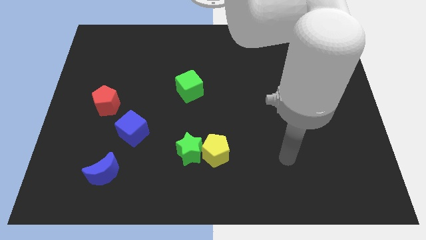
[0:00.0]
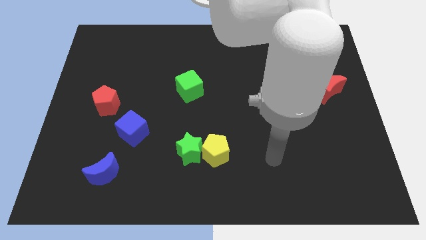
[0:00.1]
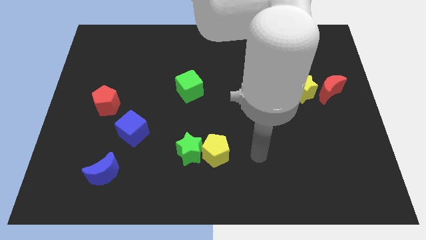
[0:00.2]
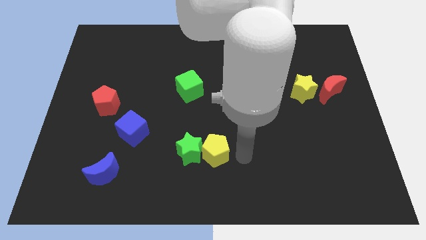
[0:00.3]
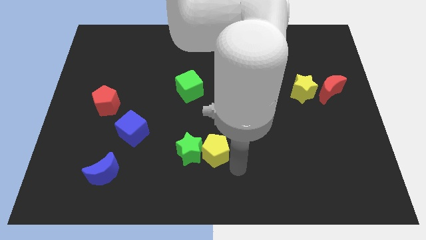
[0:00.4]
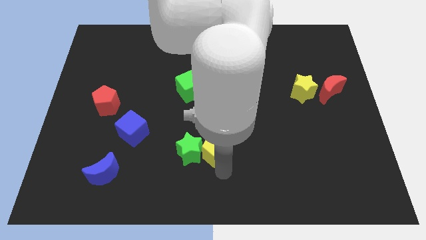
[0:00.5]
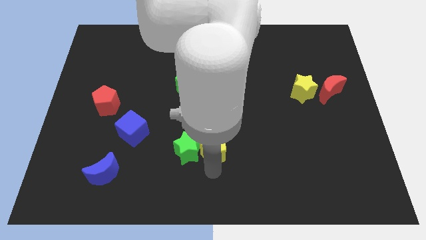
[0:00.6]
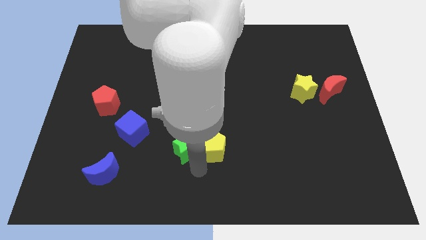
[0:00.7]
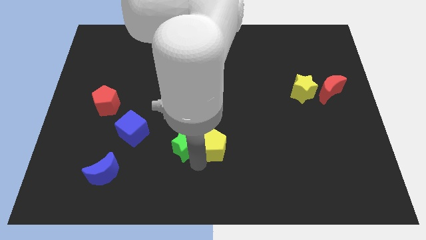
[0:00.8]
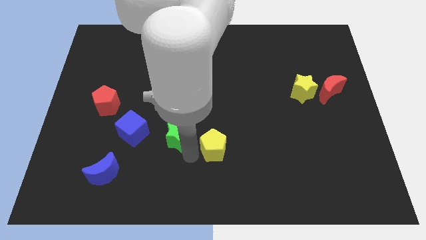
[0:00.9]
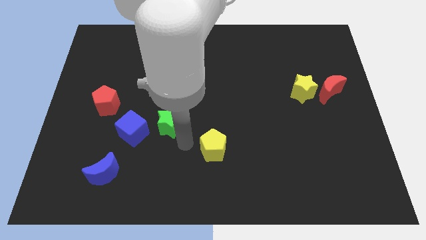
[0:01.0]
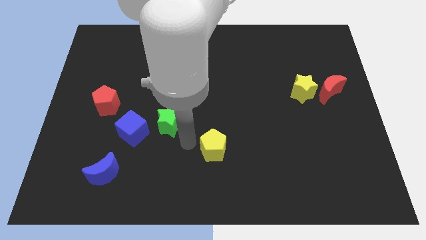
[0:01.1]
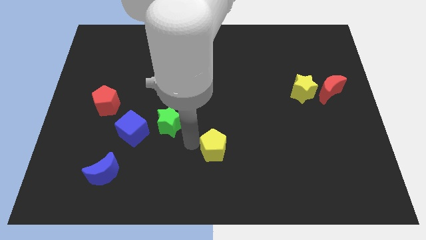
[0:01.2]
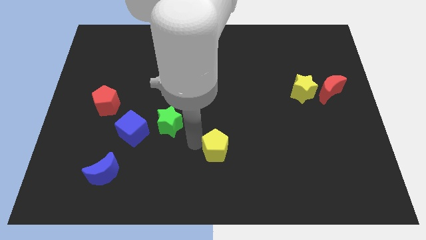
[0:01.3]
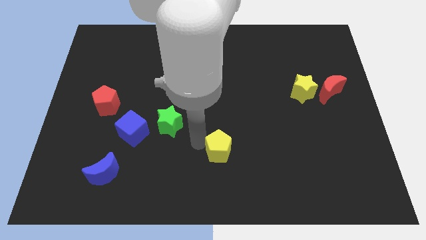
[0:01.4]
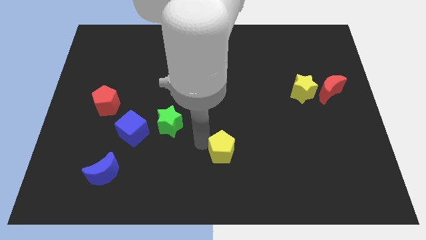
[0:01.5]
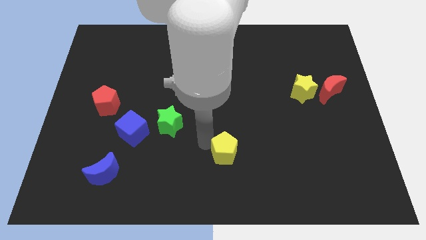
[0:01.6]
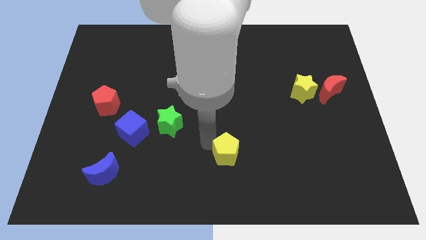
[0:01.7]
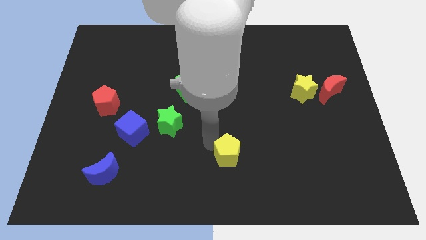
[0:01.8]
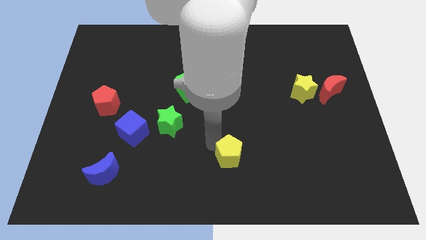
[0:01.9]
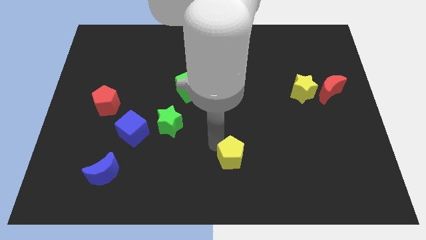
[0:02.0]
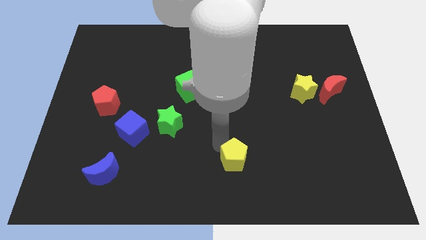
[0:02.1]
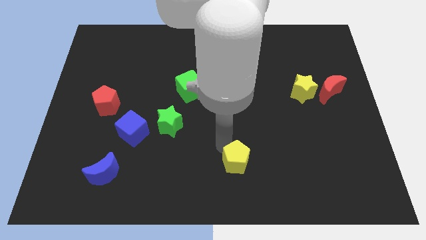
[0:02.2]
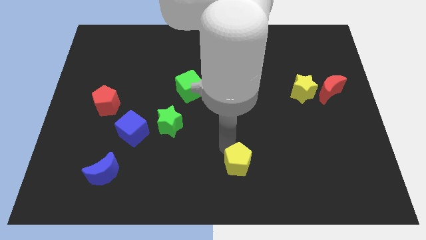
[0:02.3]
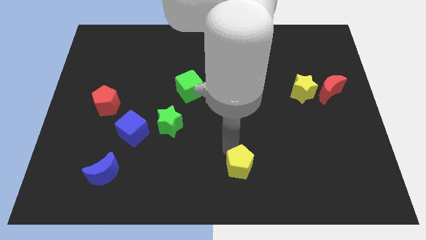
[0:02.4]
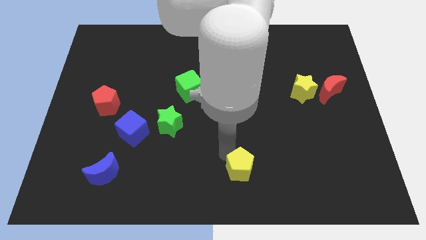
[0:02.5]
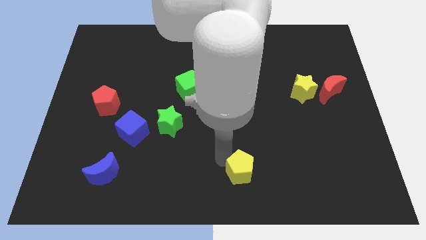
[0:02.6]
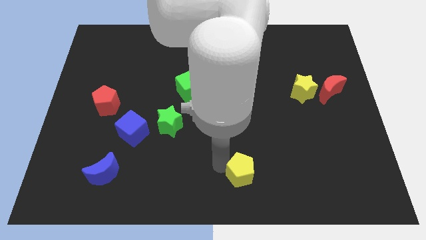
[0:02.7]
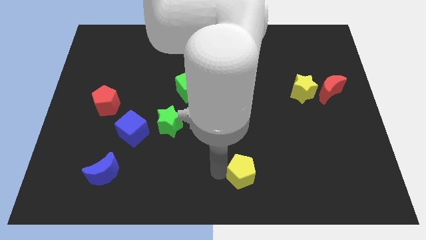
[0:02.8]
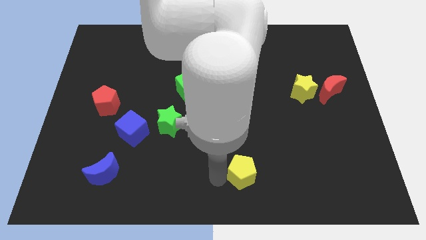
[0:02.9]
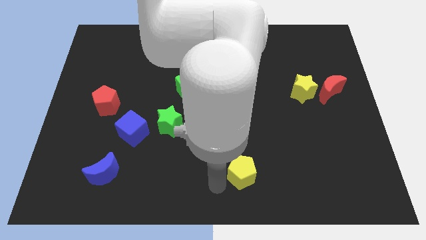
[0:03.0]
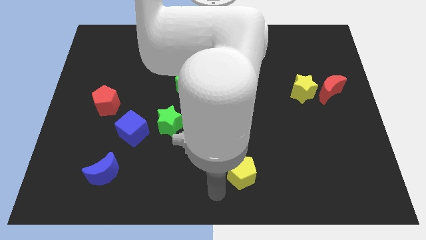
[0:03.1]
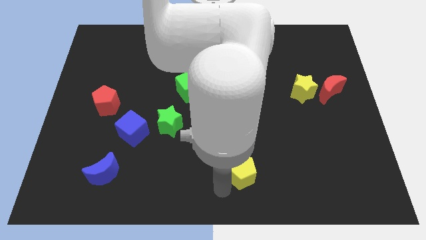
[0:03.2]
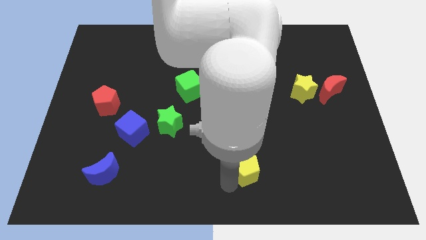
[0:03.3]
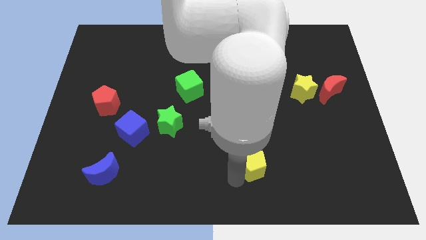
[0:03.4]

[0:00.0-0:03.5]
slide the yellow pentagon a little bit to the right

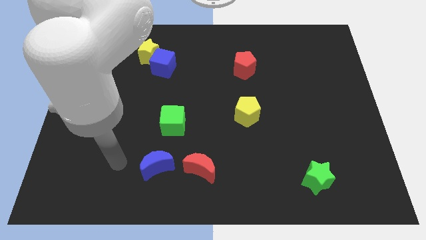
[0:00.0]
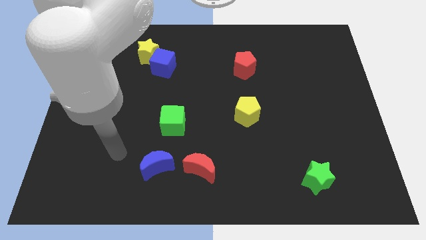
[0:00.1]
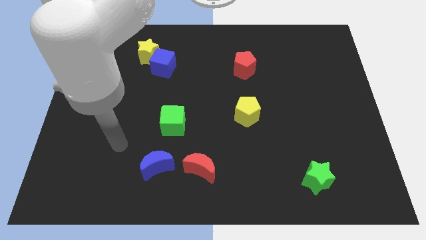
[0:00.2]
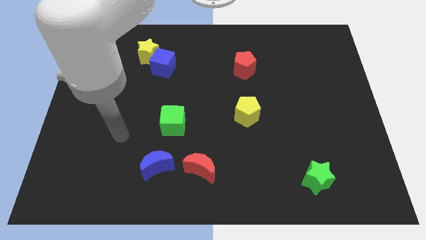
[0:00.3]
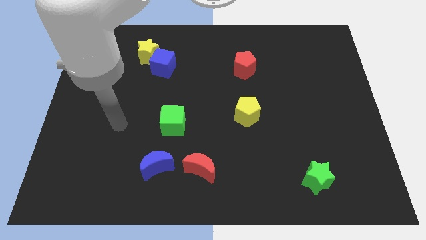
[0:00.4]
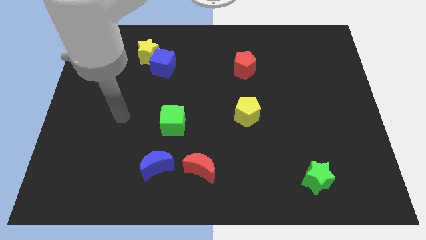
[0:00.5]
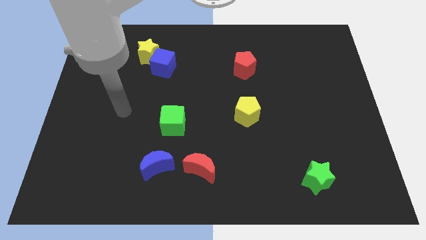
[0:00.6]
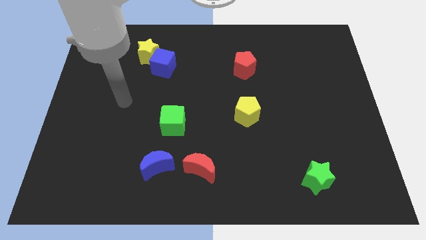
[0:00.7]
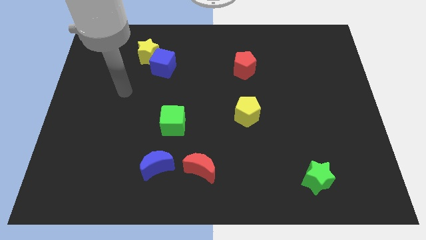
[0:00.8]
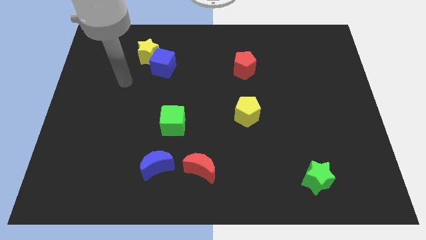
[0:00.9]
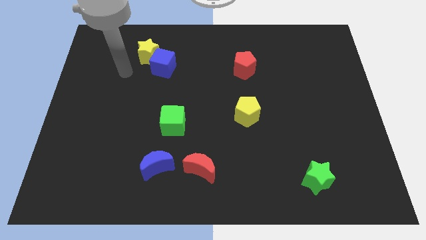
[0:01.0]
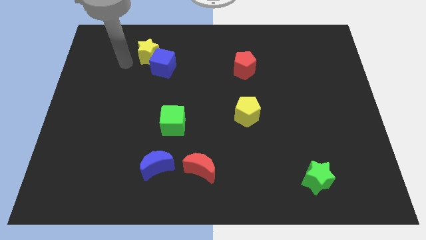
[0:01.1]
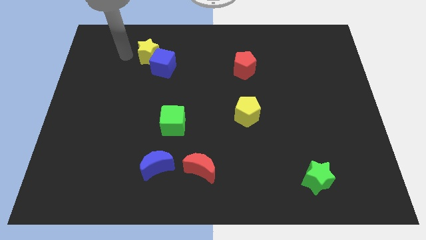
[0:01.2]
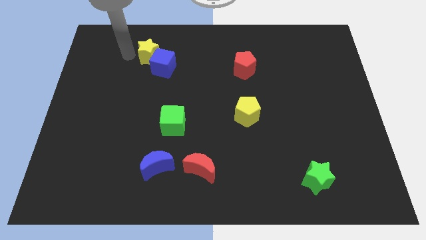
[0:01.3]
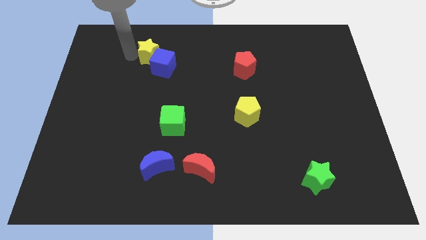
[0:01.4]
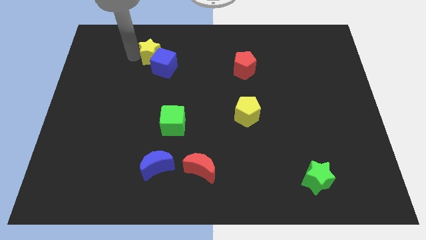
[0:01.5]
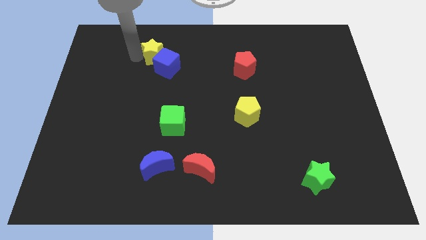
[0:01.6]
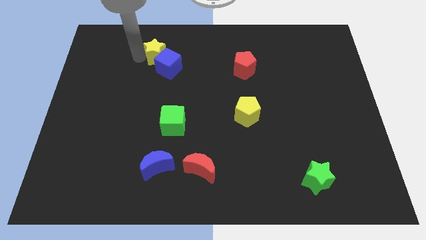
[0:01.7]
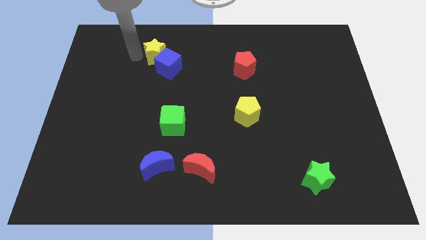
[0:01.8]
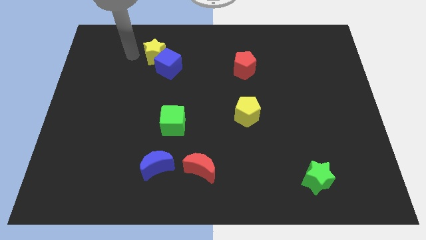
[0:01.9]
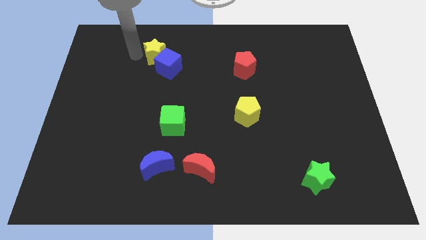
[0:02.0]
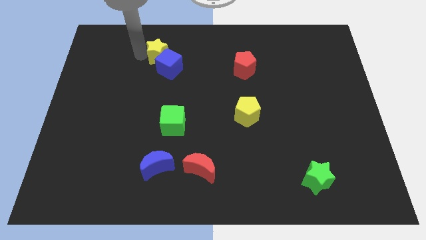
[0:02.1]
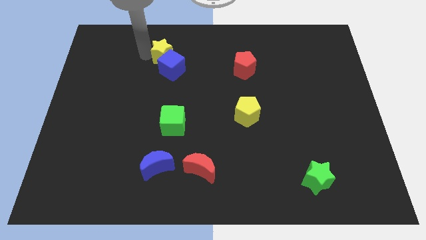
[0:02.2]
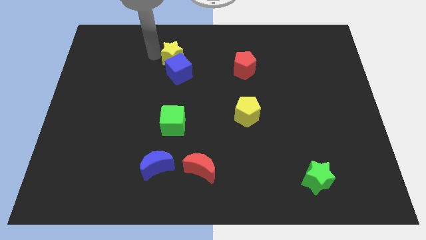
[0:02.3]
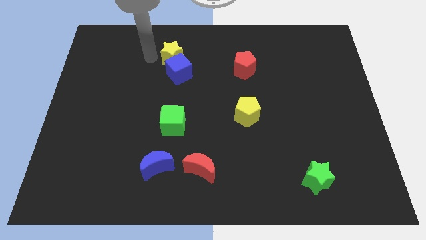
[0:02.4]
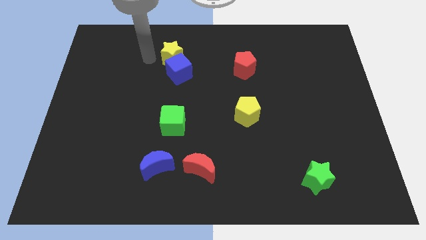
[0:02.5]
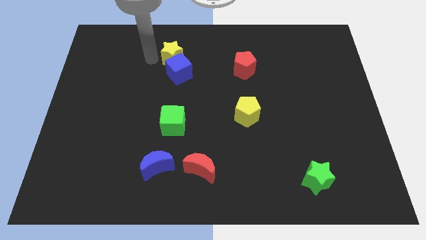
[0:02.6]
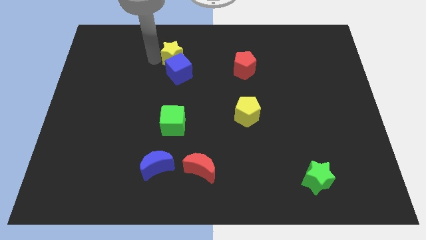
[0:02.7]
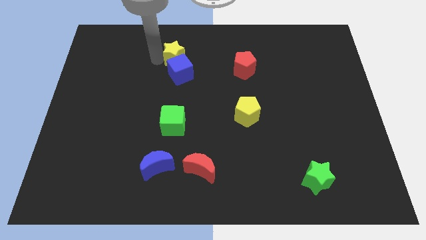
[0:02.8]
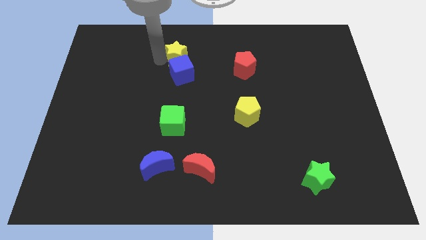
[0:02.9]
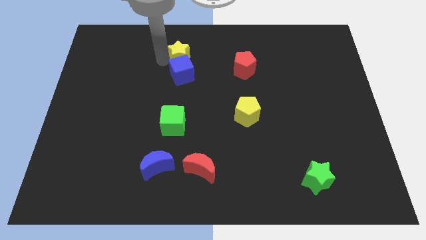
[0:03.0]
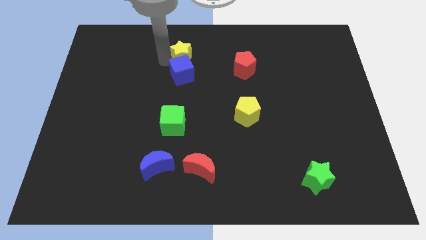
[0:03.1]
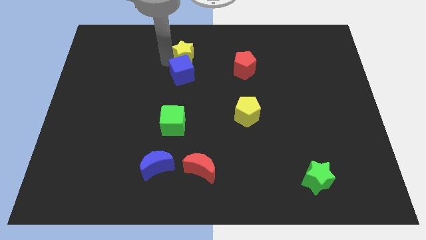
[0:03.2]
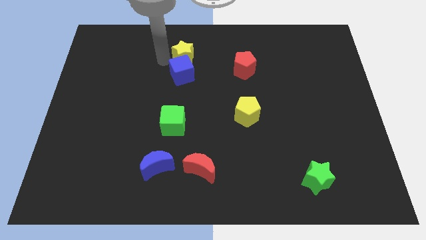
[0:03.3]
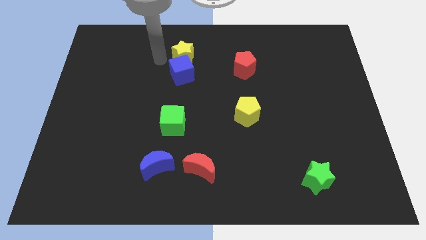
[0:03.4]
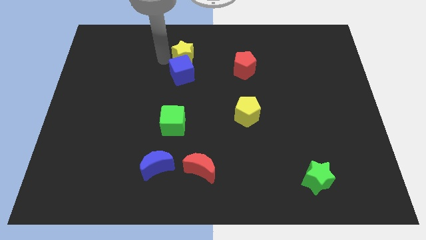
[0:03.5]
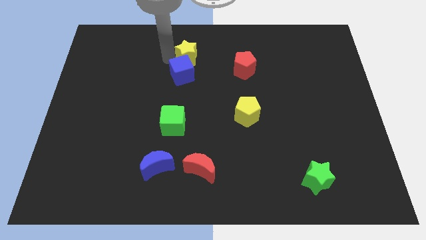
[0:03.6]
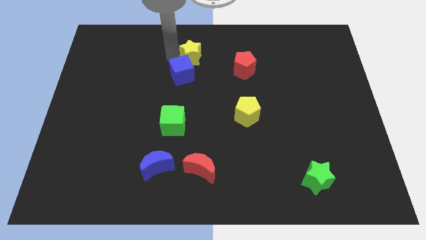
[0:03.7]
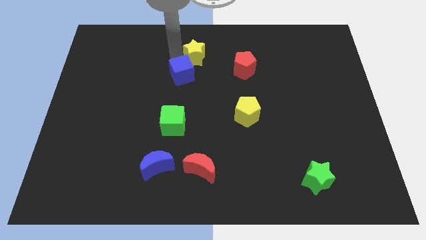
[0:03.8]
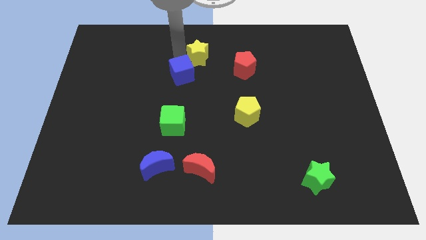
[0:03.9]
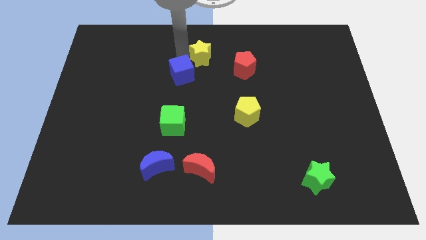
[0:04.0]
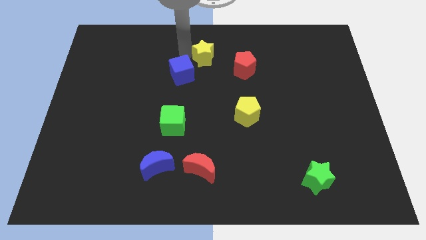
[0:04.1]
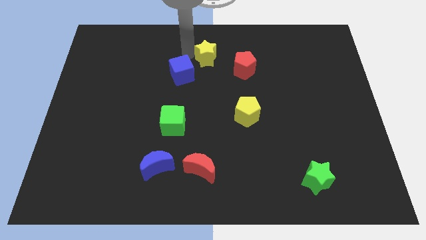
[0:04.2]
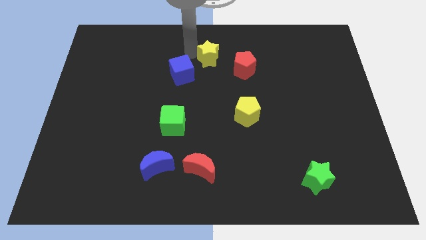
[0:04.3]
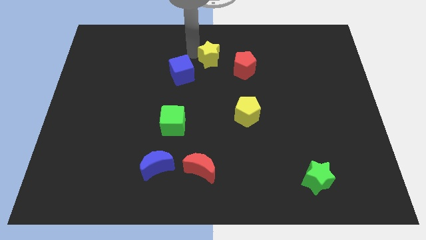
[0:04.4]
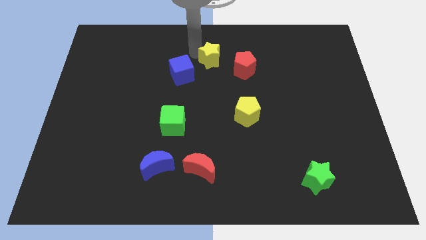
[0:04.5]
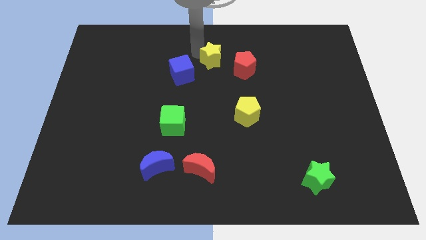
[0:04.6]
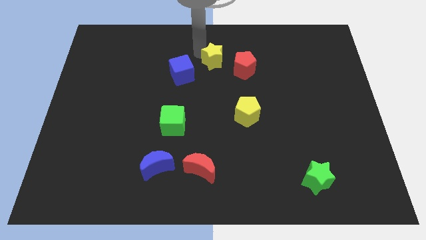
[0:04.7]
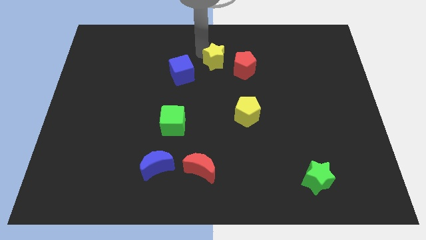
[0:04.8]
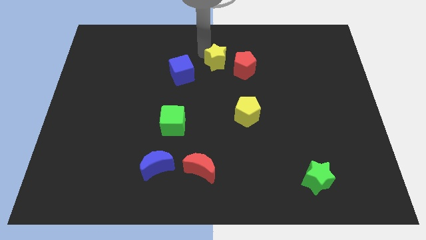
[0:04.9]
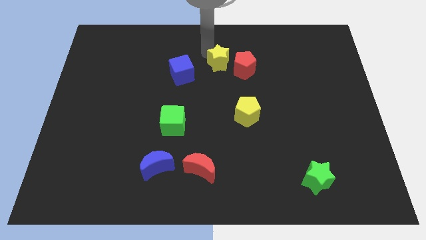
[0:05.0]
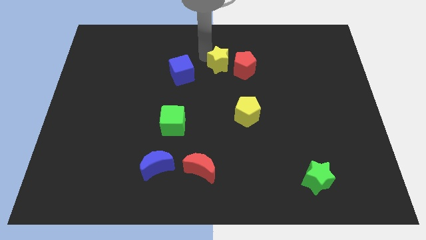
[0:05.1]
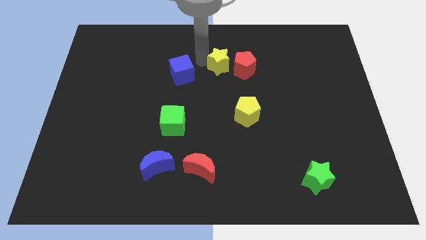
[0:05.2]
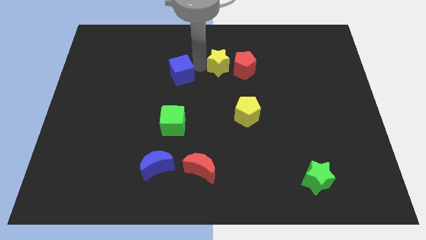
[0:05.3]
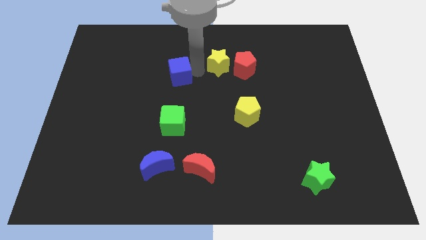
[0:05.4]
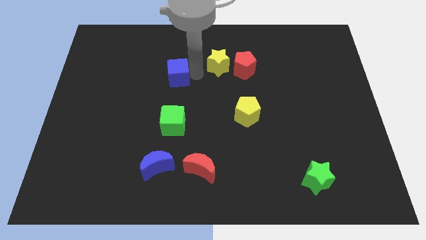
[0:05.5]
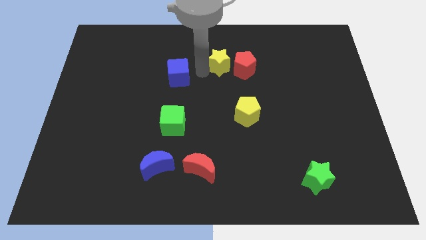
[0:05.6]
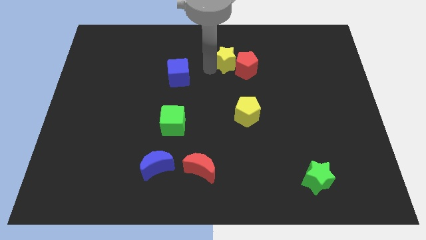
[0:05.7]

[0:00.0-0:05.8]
slide the yellow star right
